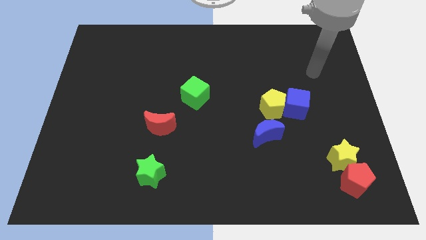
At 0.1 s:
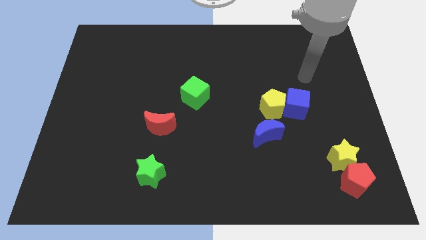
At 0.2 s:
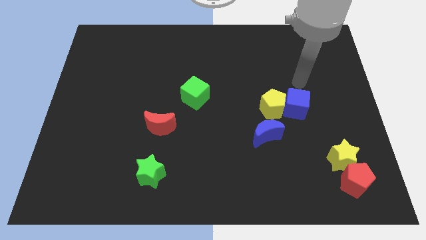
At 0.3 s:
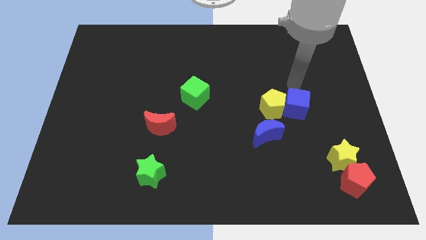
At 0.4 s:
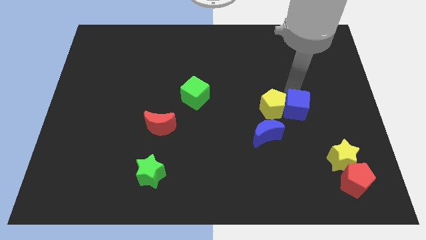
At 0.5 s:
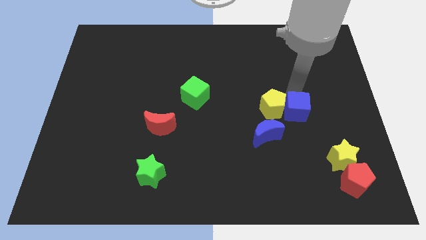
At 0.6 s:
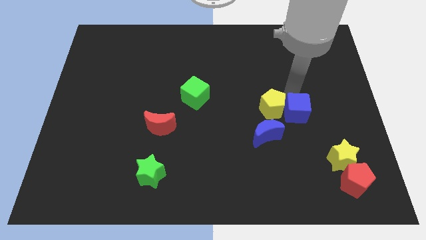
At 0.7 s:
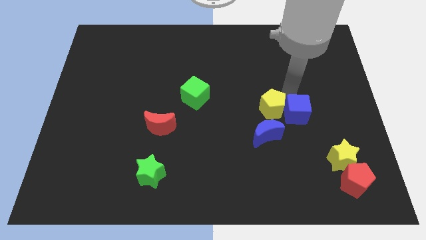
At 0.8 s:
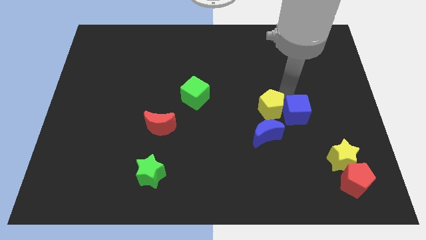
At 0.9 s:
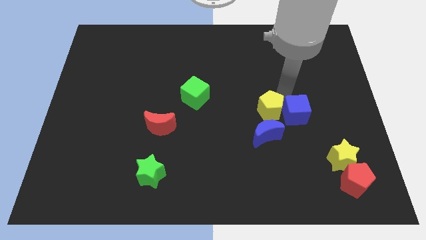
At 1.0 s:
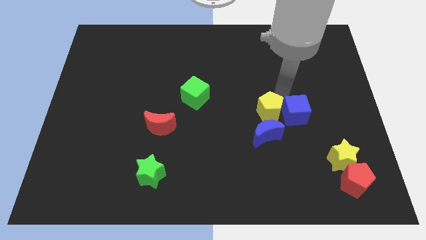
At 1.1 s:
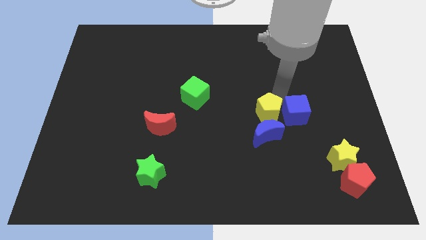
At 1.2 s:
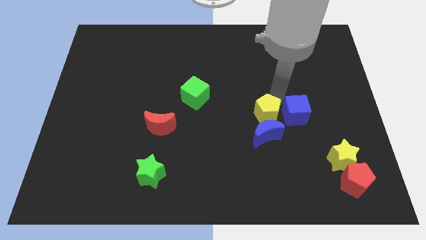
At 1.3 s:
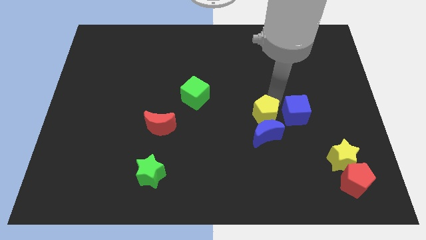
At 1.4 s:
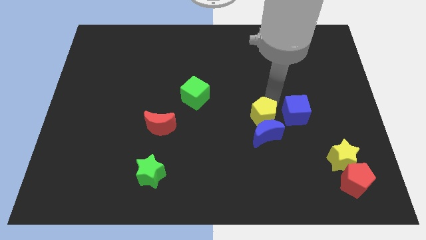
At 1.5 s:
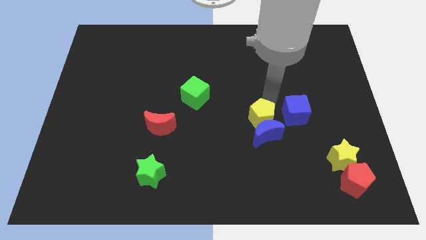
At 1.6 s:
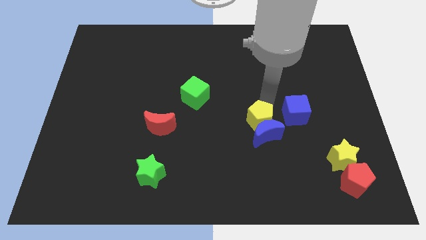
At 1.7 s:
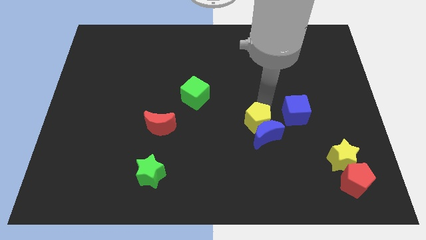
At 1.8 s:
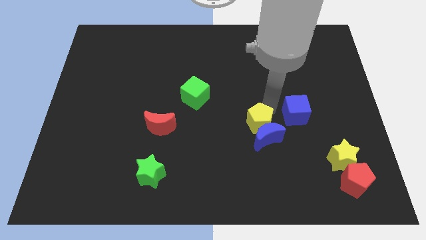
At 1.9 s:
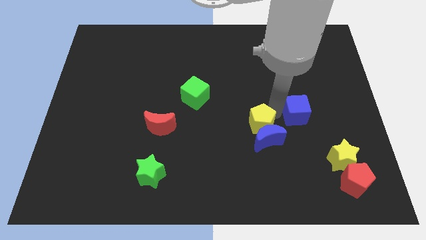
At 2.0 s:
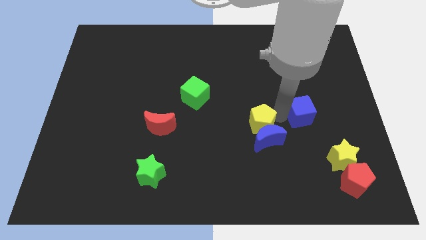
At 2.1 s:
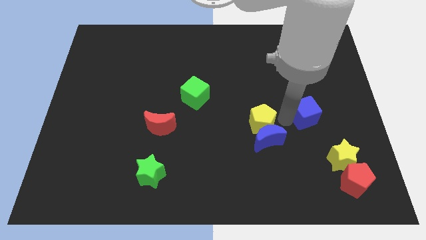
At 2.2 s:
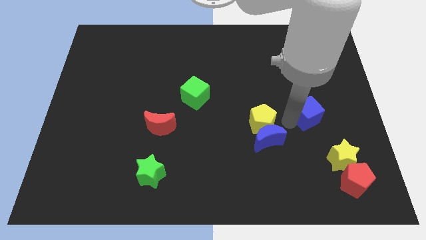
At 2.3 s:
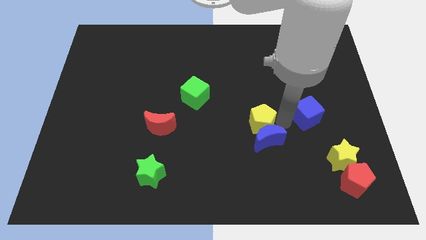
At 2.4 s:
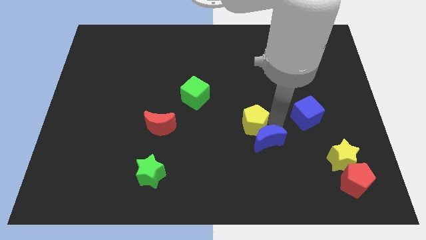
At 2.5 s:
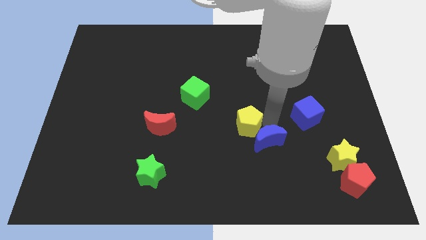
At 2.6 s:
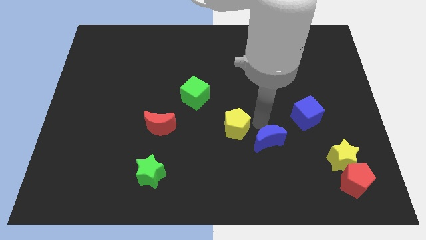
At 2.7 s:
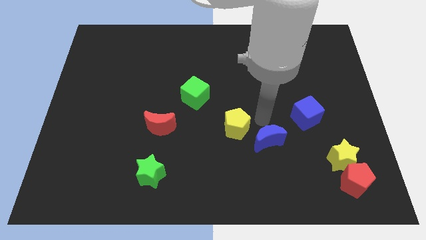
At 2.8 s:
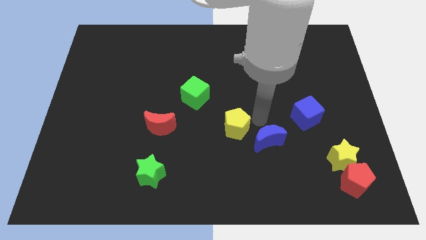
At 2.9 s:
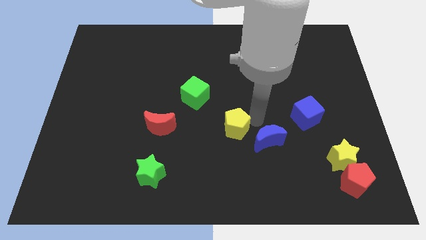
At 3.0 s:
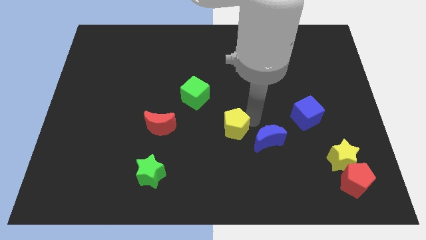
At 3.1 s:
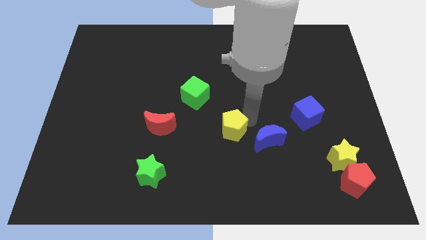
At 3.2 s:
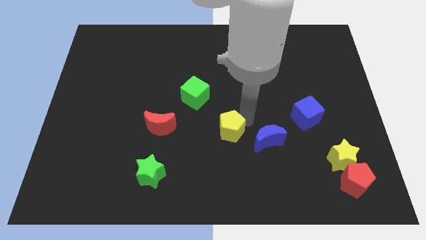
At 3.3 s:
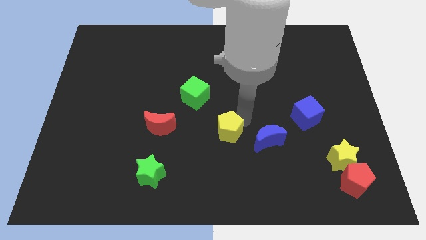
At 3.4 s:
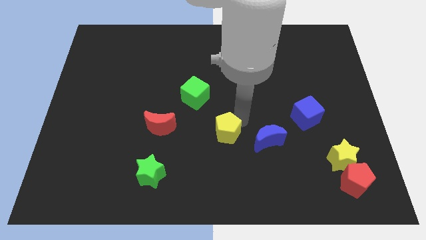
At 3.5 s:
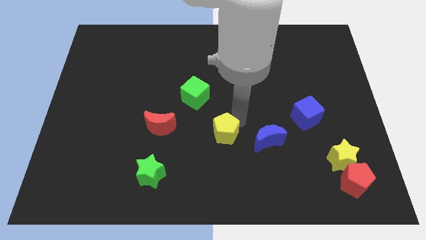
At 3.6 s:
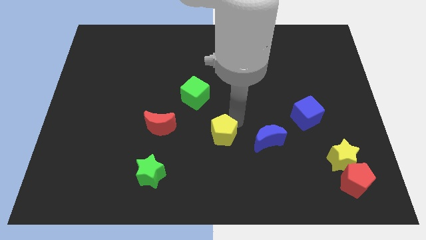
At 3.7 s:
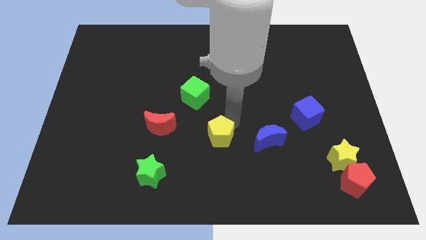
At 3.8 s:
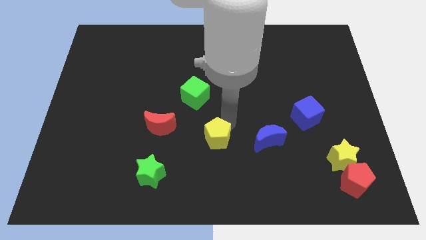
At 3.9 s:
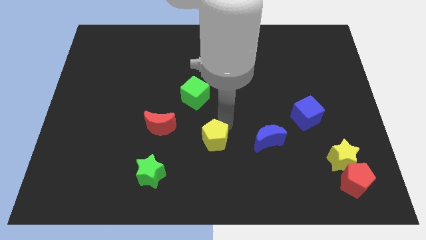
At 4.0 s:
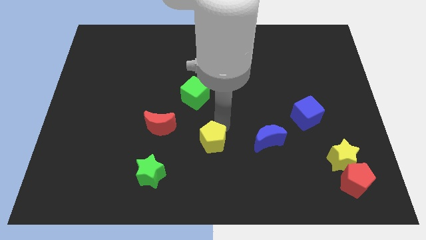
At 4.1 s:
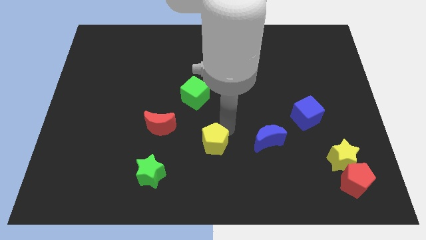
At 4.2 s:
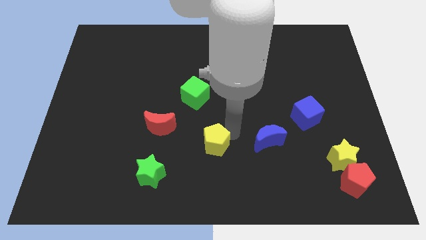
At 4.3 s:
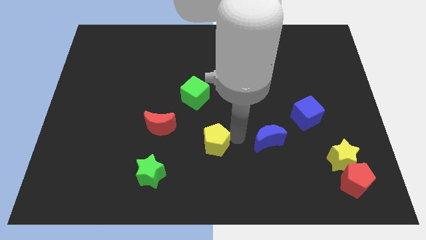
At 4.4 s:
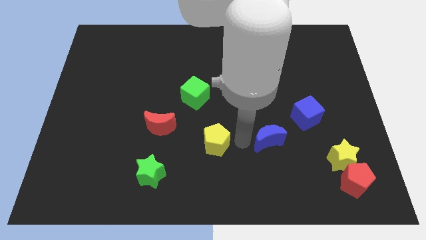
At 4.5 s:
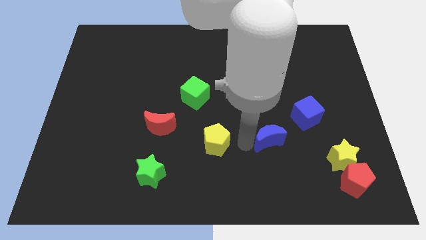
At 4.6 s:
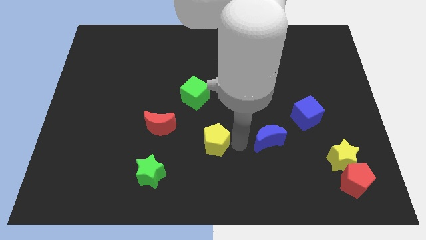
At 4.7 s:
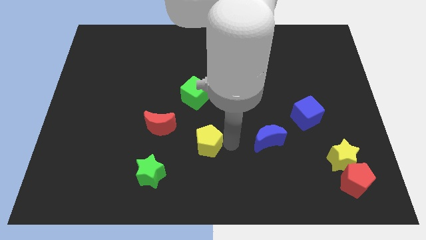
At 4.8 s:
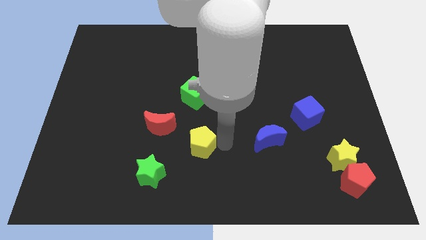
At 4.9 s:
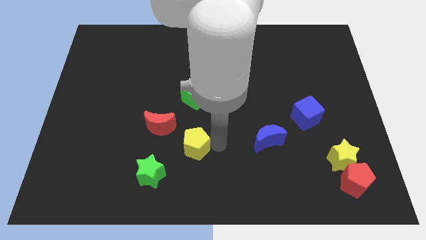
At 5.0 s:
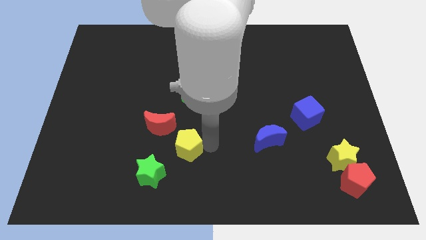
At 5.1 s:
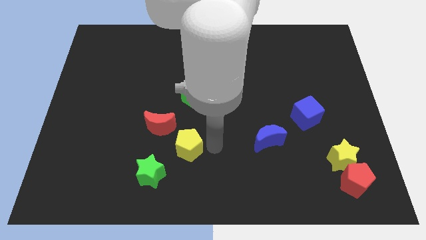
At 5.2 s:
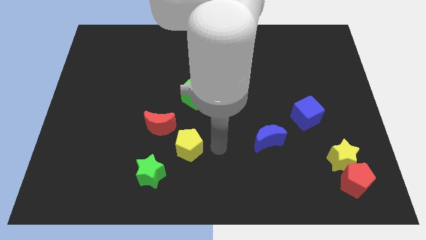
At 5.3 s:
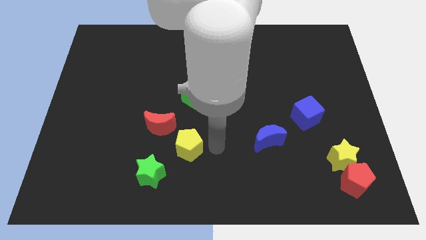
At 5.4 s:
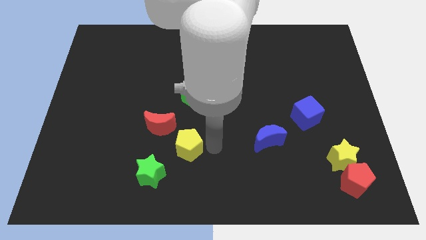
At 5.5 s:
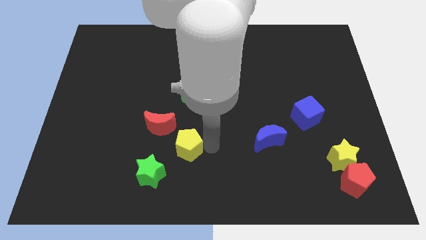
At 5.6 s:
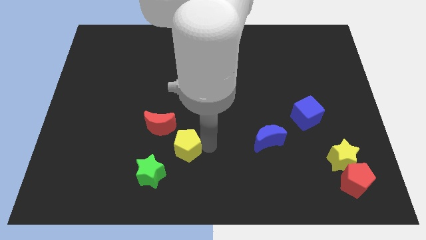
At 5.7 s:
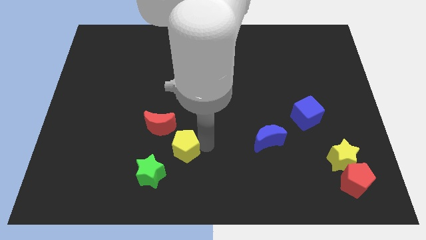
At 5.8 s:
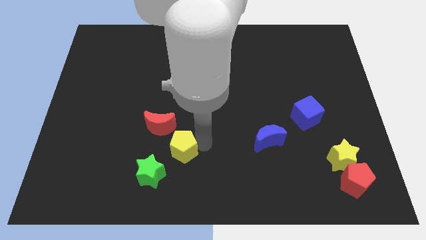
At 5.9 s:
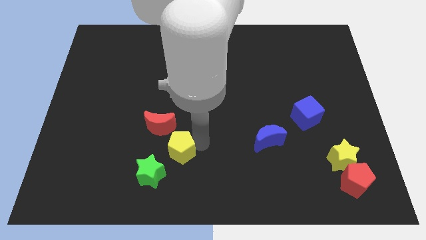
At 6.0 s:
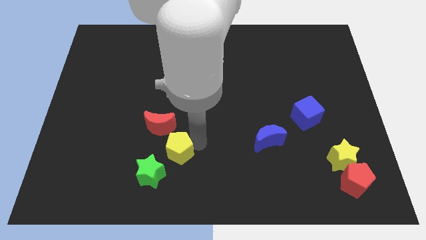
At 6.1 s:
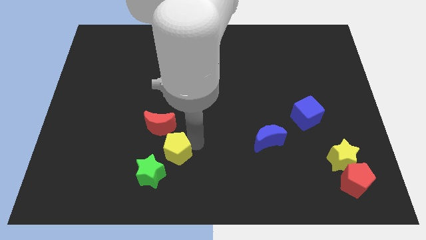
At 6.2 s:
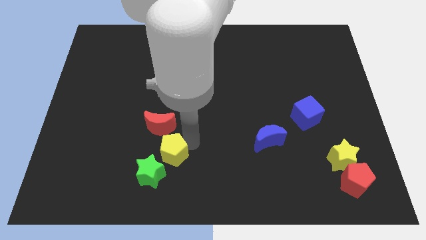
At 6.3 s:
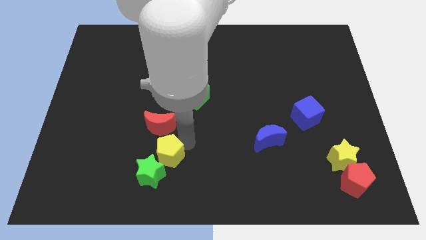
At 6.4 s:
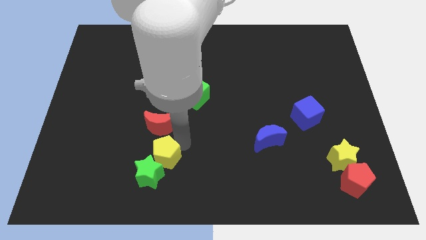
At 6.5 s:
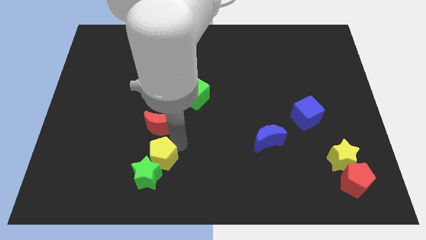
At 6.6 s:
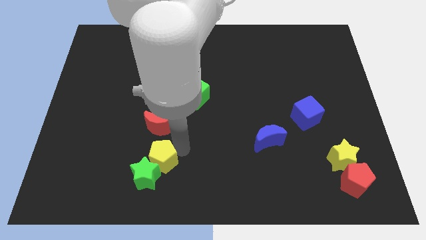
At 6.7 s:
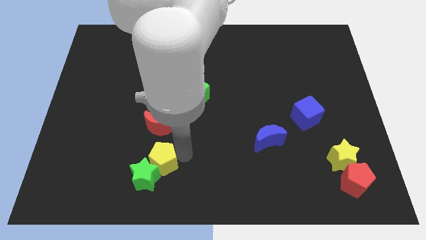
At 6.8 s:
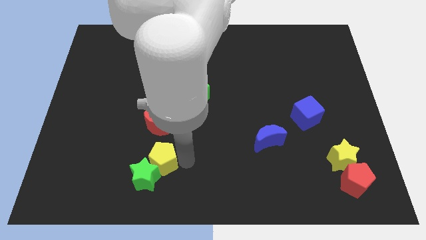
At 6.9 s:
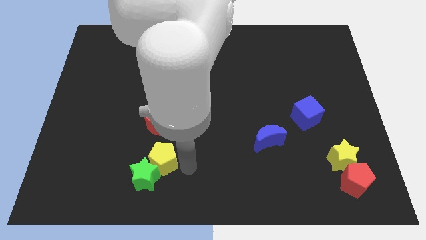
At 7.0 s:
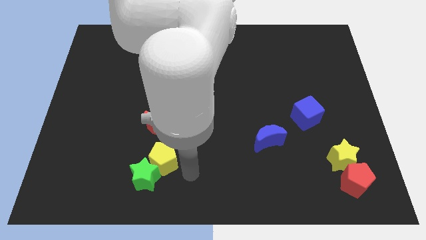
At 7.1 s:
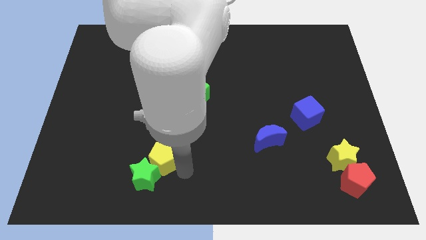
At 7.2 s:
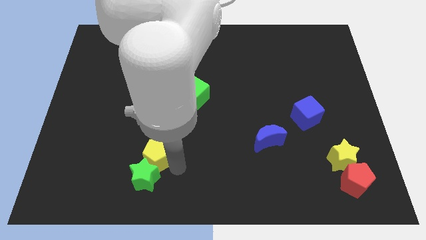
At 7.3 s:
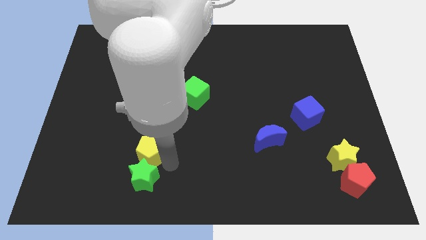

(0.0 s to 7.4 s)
put the yellow pentagon to the bottom left of the red moon

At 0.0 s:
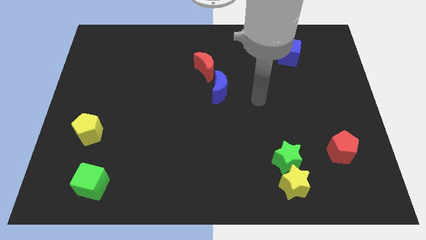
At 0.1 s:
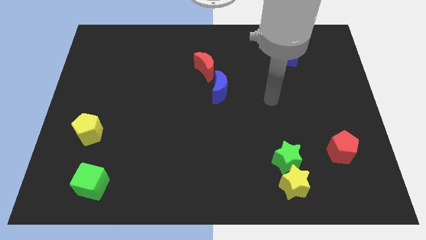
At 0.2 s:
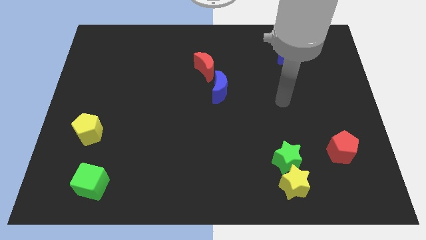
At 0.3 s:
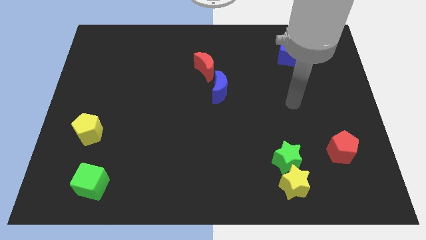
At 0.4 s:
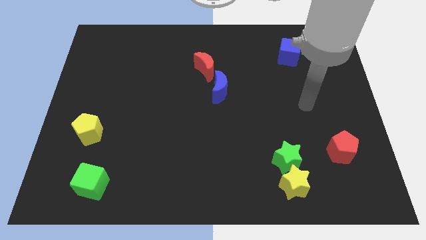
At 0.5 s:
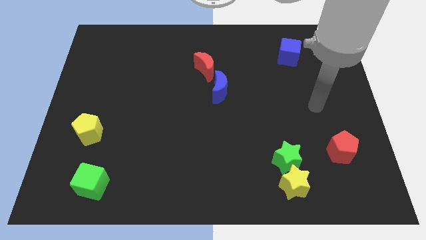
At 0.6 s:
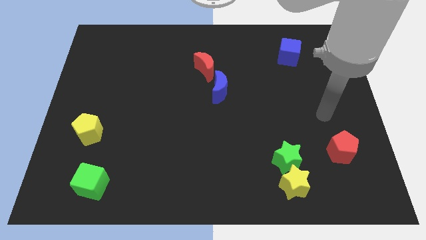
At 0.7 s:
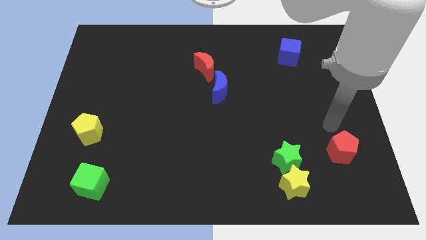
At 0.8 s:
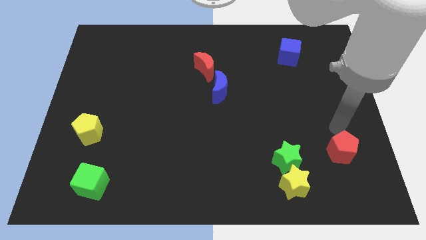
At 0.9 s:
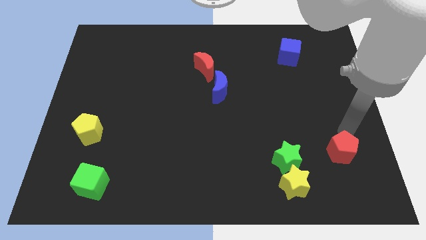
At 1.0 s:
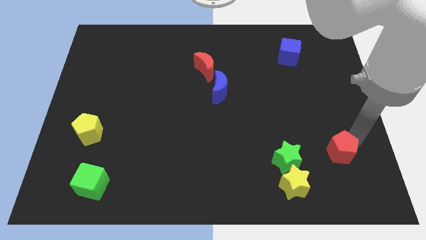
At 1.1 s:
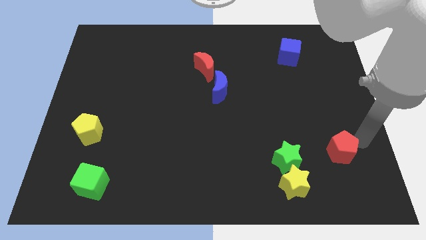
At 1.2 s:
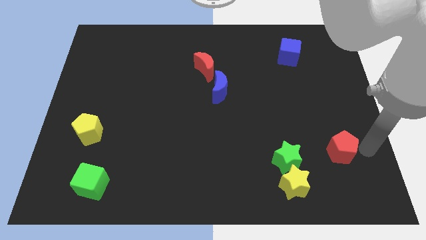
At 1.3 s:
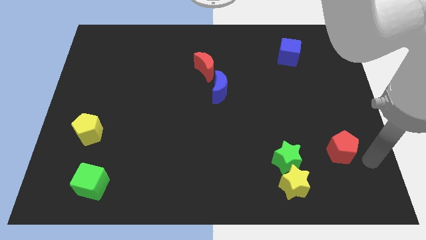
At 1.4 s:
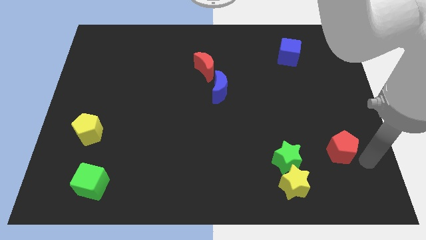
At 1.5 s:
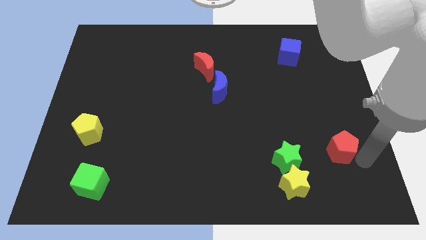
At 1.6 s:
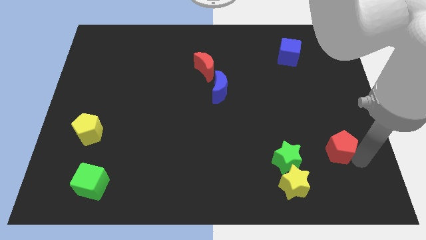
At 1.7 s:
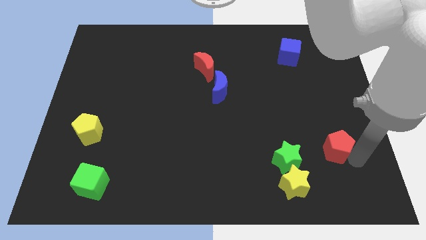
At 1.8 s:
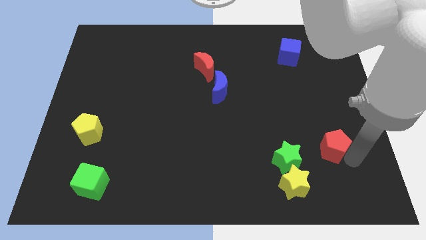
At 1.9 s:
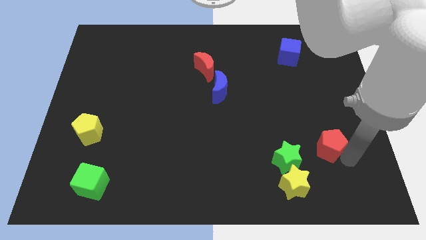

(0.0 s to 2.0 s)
put the red pentagon diagonally up and to the right of the green star
